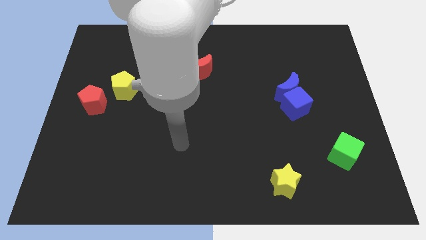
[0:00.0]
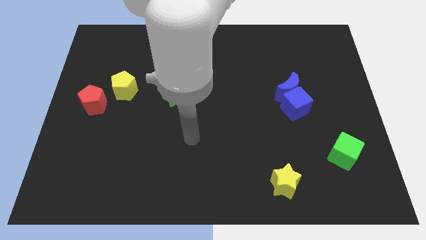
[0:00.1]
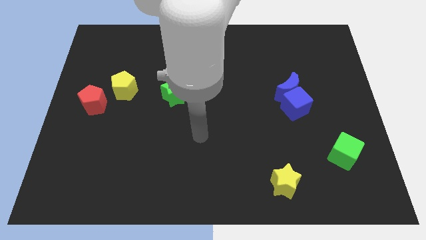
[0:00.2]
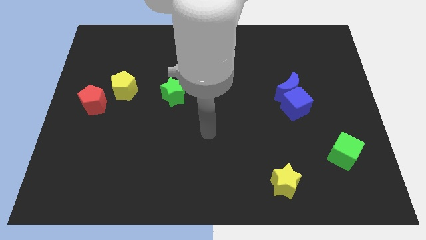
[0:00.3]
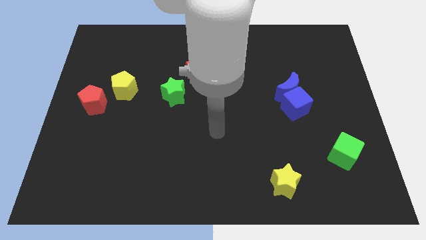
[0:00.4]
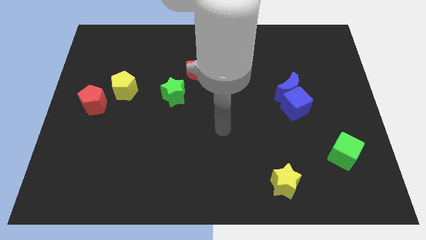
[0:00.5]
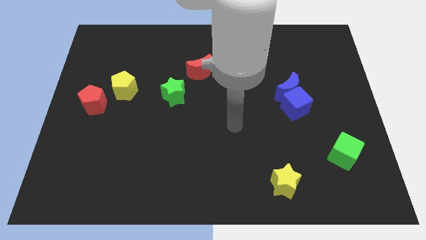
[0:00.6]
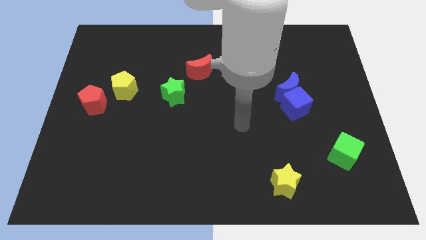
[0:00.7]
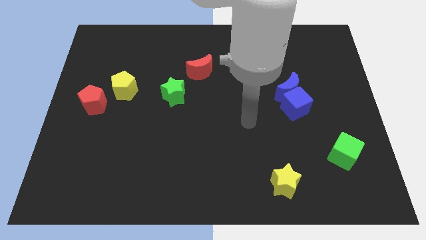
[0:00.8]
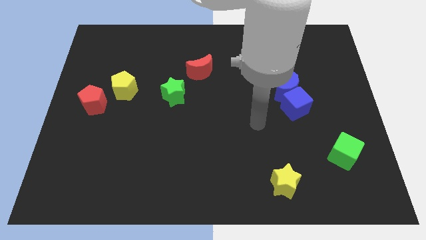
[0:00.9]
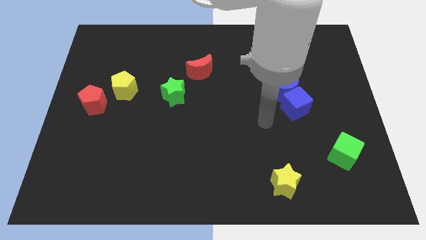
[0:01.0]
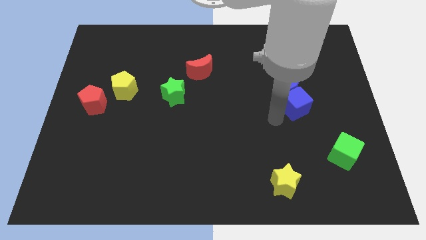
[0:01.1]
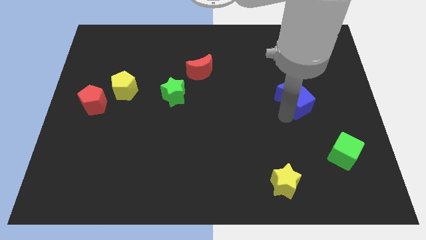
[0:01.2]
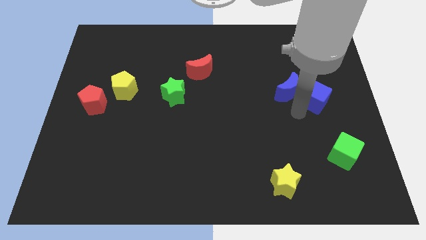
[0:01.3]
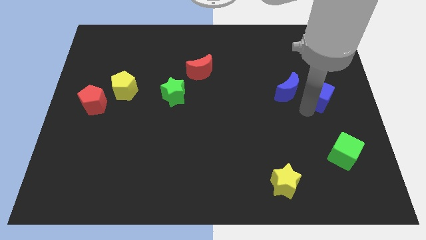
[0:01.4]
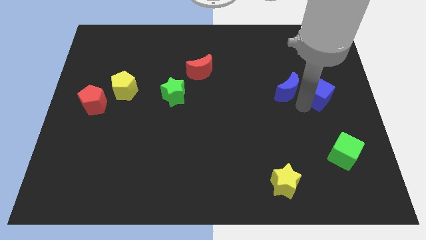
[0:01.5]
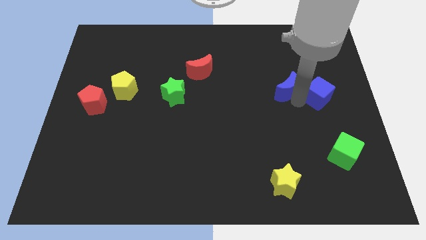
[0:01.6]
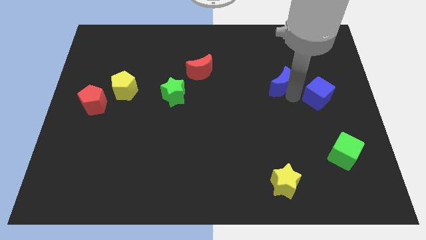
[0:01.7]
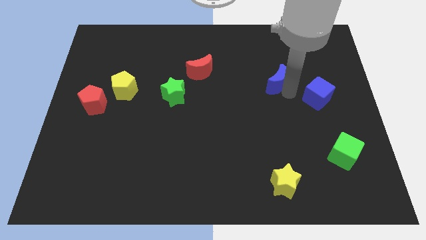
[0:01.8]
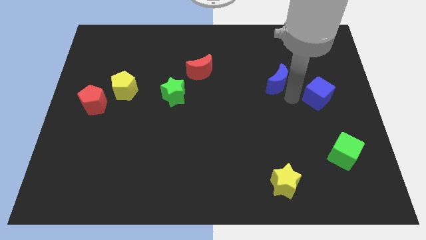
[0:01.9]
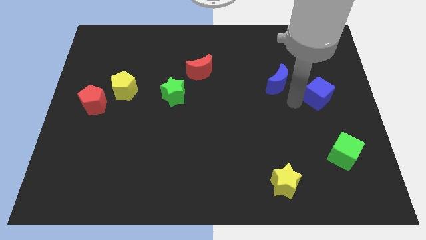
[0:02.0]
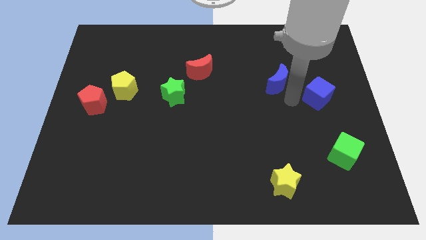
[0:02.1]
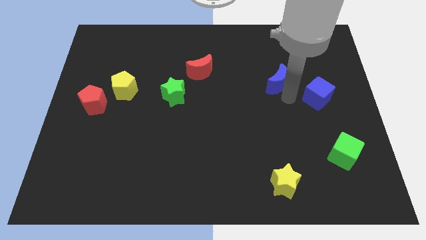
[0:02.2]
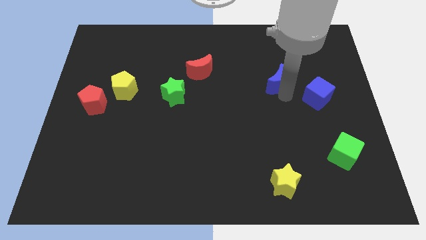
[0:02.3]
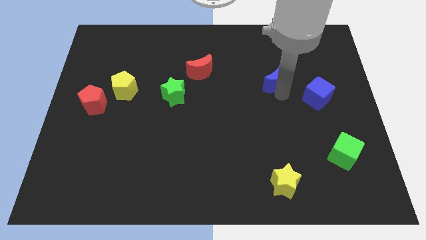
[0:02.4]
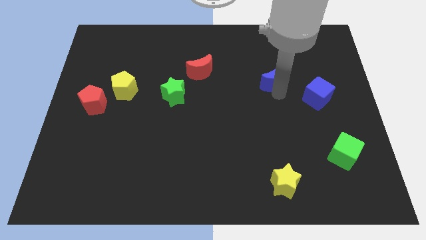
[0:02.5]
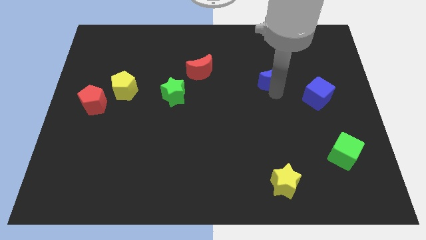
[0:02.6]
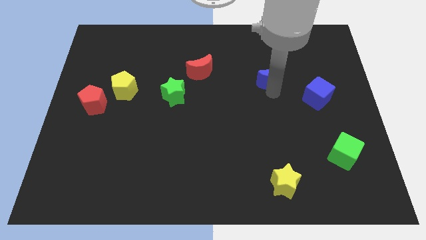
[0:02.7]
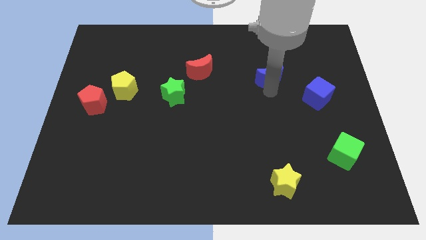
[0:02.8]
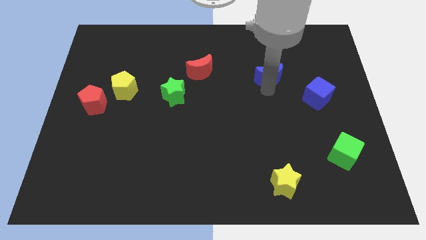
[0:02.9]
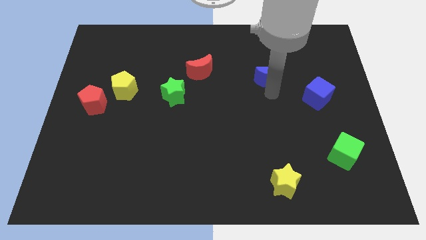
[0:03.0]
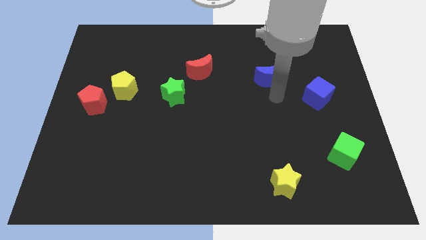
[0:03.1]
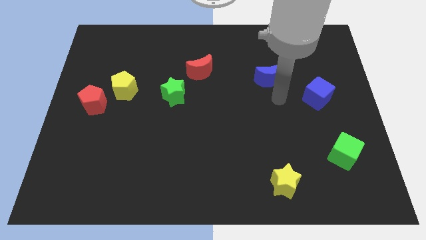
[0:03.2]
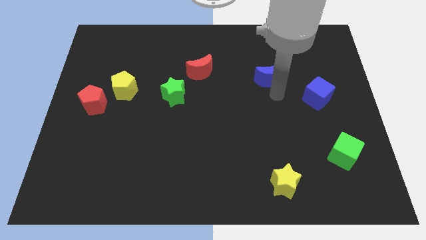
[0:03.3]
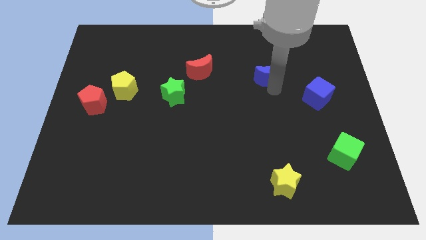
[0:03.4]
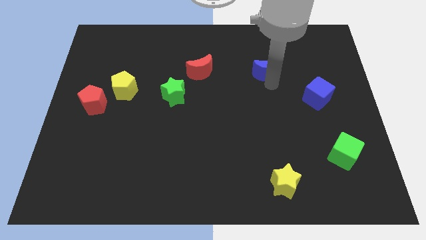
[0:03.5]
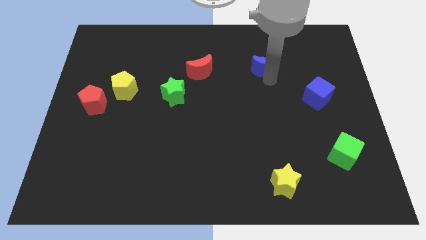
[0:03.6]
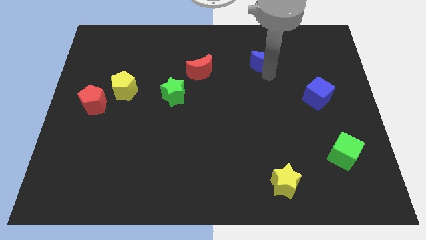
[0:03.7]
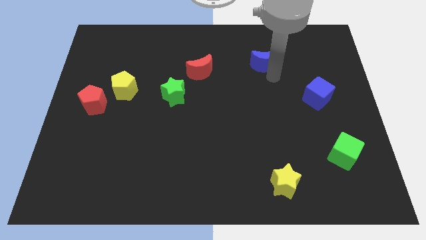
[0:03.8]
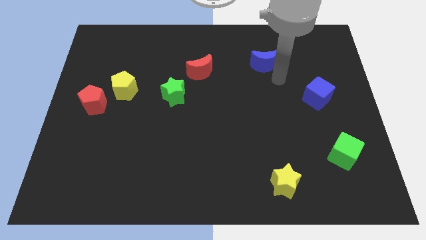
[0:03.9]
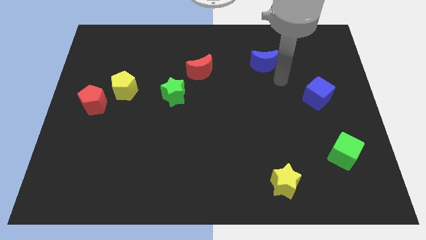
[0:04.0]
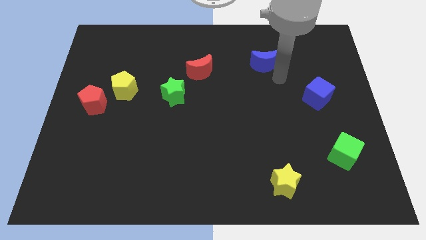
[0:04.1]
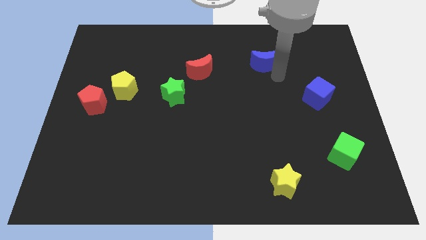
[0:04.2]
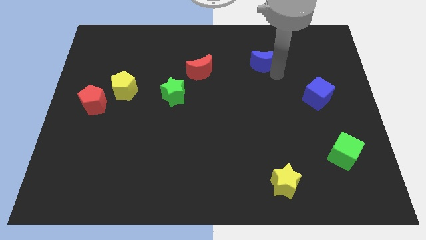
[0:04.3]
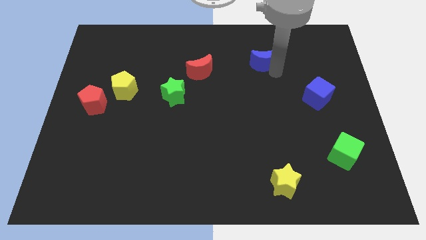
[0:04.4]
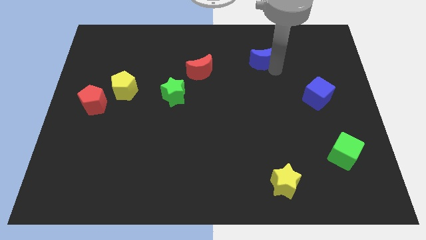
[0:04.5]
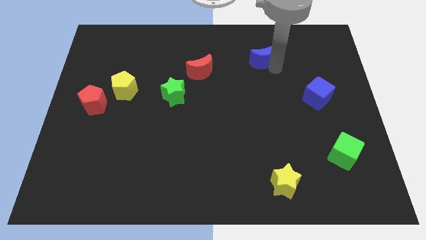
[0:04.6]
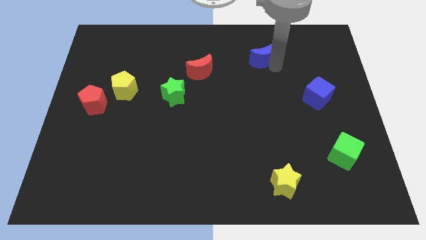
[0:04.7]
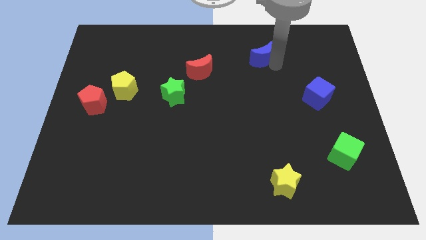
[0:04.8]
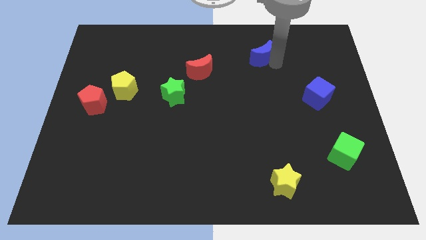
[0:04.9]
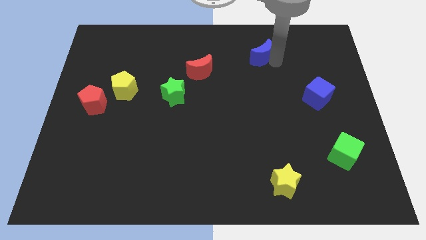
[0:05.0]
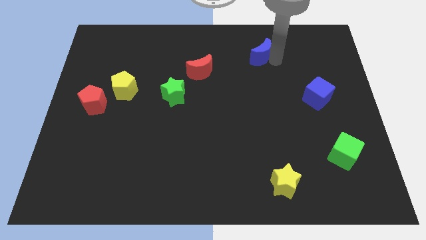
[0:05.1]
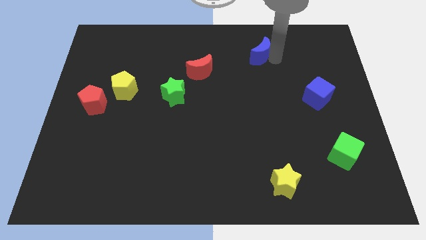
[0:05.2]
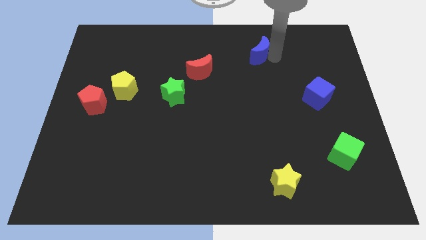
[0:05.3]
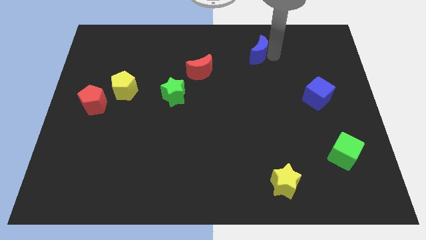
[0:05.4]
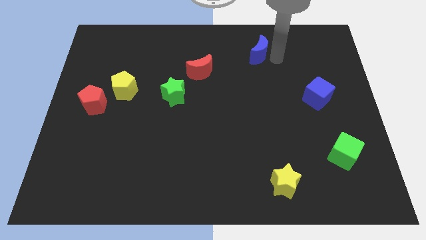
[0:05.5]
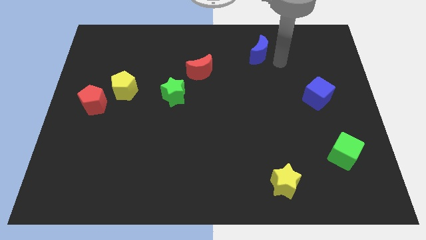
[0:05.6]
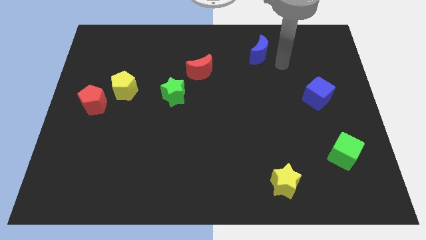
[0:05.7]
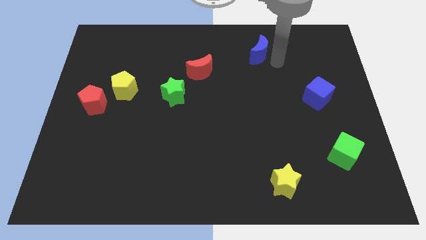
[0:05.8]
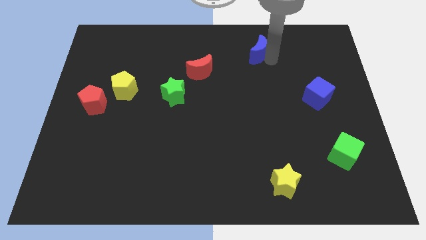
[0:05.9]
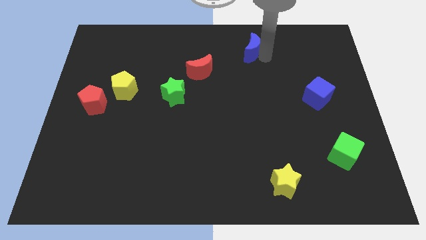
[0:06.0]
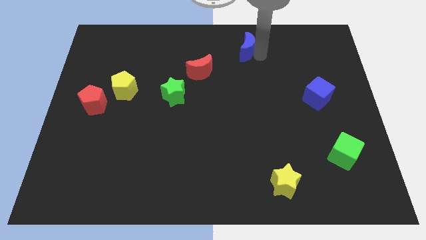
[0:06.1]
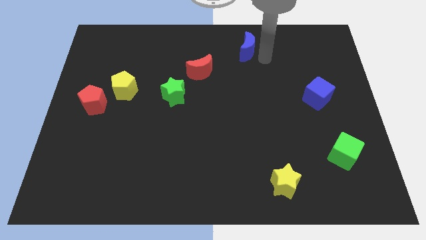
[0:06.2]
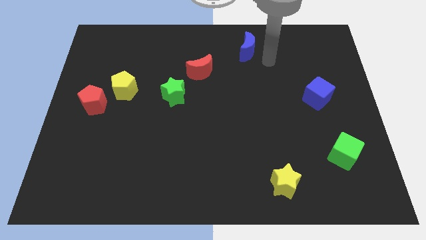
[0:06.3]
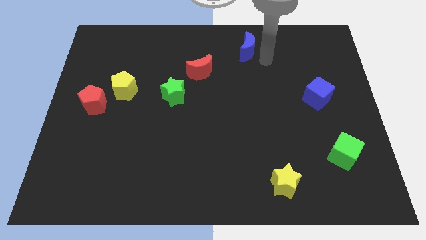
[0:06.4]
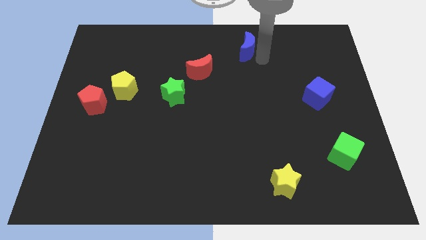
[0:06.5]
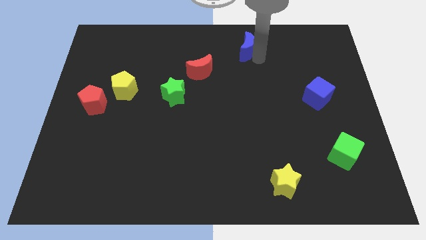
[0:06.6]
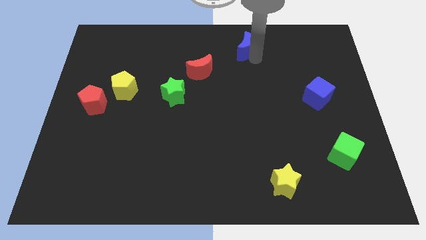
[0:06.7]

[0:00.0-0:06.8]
push the blue moon to the top

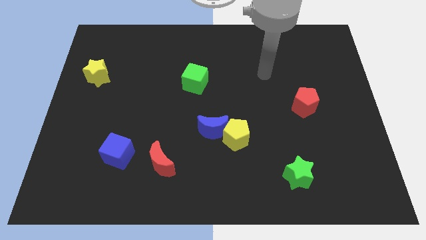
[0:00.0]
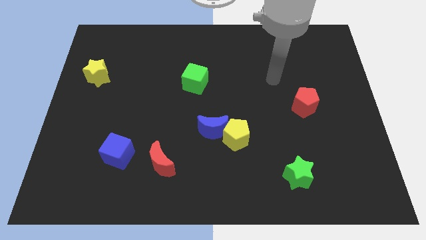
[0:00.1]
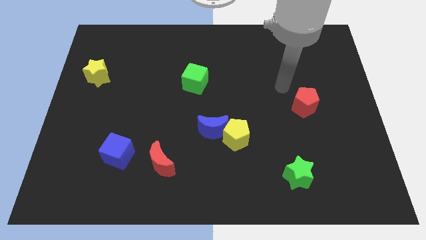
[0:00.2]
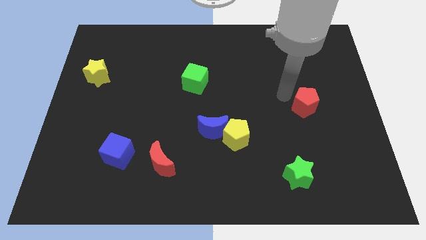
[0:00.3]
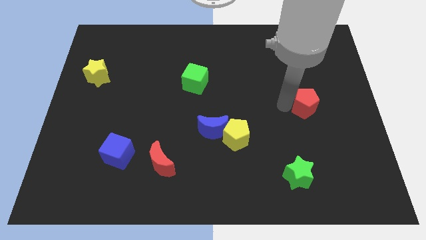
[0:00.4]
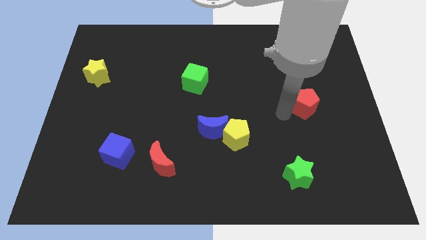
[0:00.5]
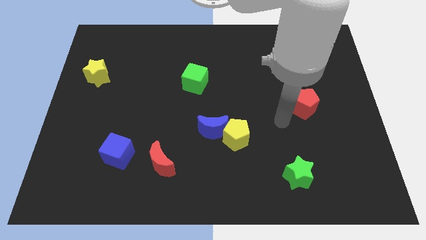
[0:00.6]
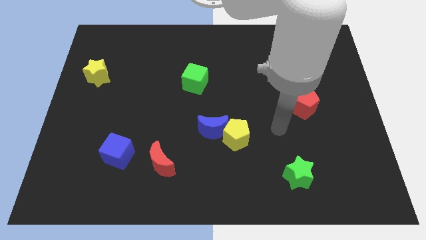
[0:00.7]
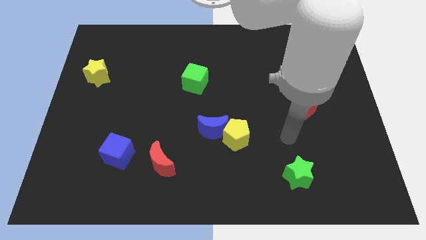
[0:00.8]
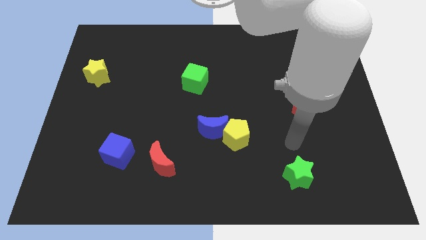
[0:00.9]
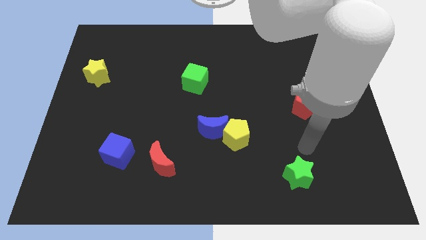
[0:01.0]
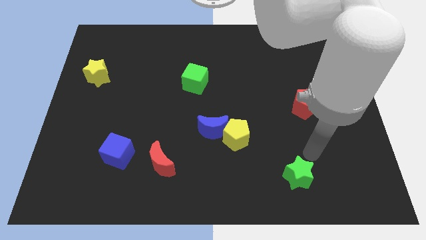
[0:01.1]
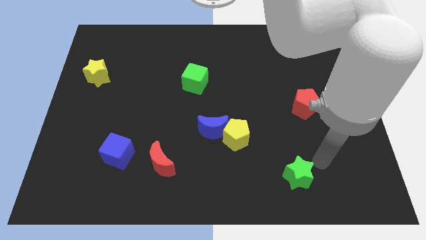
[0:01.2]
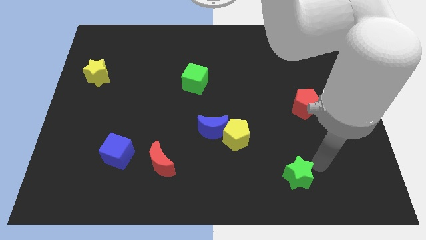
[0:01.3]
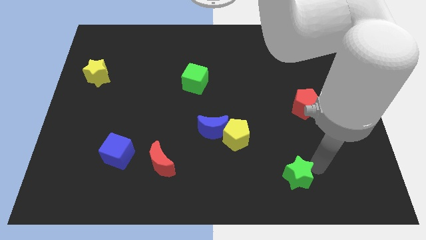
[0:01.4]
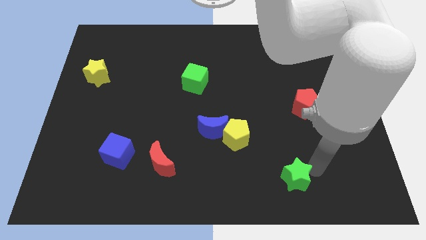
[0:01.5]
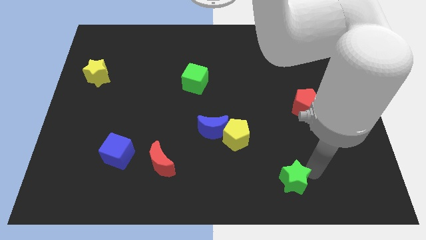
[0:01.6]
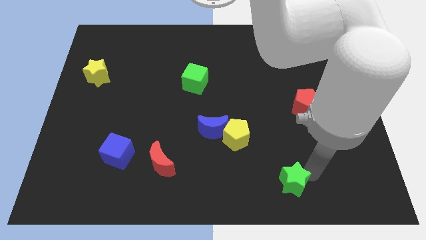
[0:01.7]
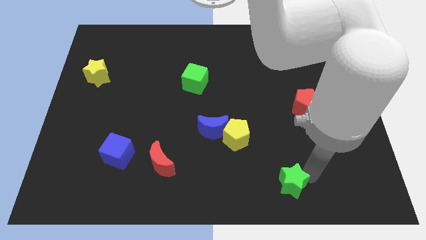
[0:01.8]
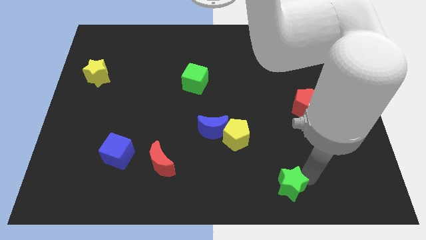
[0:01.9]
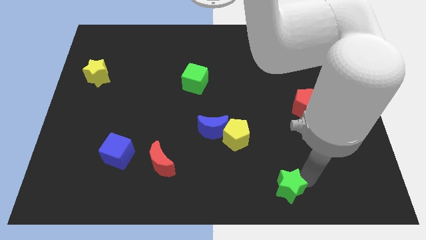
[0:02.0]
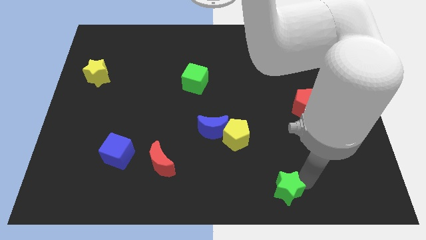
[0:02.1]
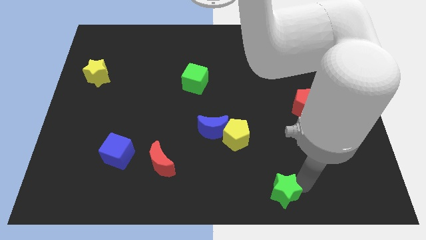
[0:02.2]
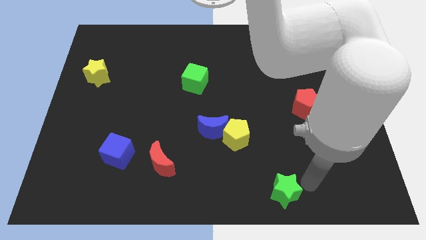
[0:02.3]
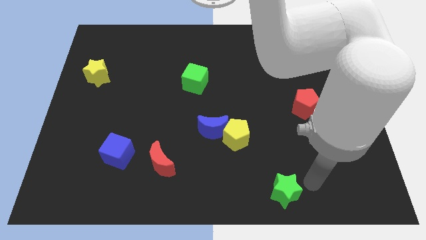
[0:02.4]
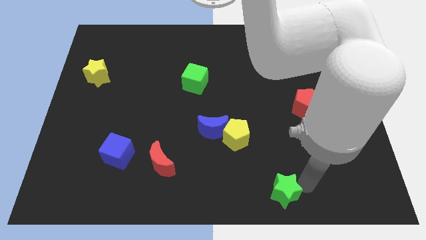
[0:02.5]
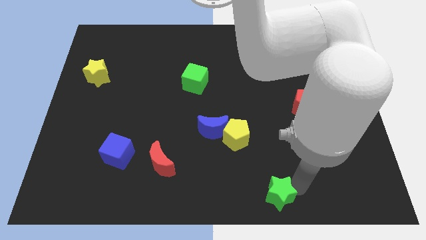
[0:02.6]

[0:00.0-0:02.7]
put the green star to the bottom side
